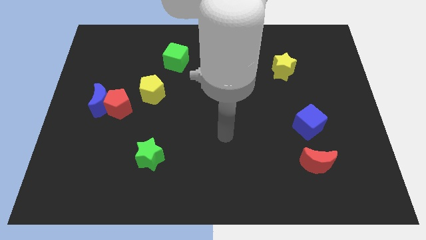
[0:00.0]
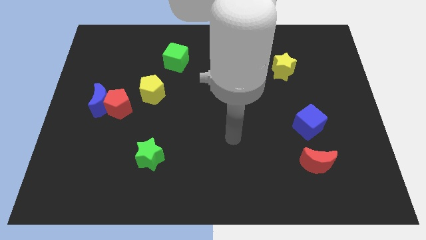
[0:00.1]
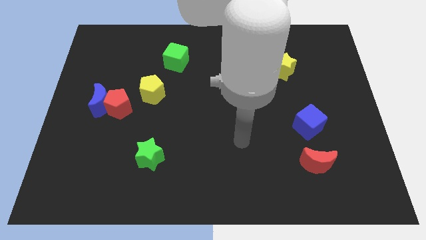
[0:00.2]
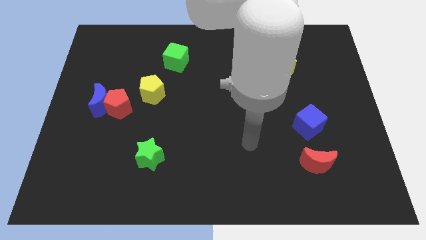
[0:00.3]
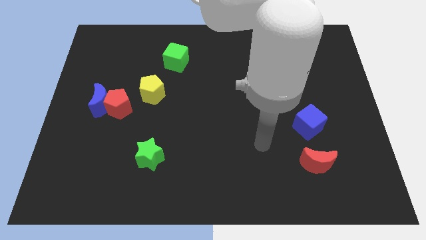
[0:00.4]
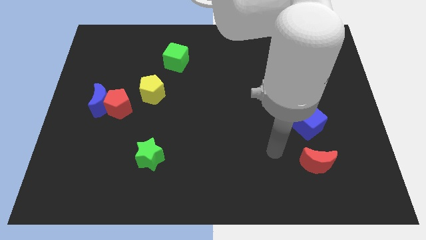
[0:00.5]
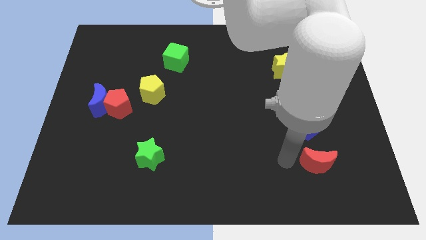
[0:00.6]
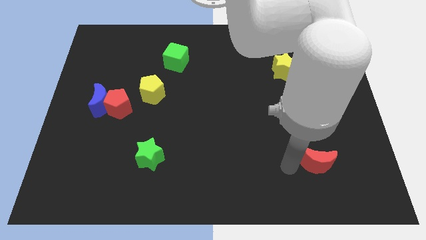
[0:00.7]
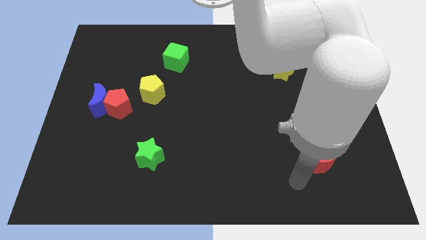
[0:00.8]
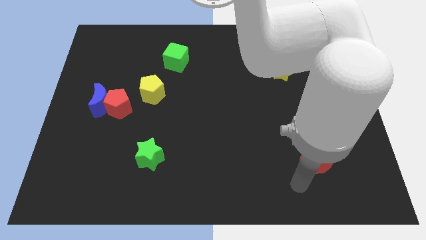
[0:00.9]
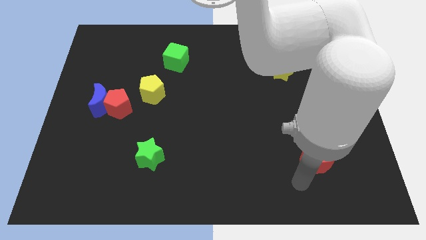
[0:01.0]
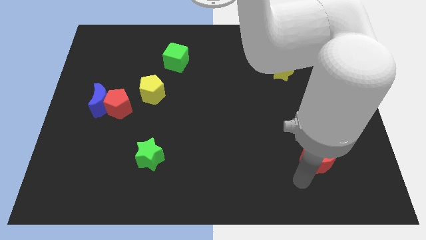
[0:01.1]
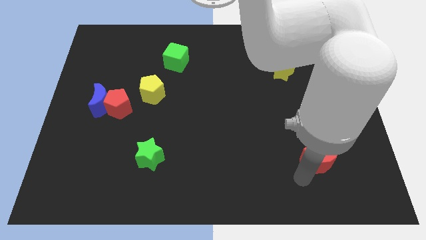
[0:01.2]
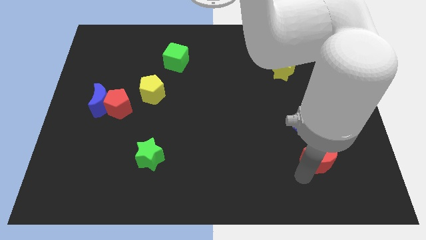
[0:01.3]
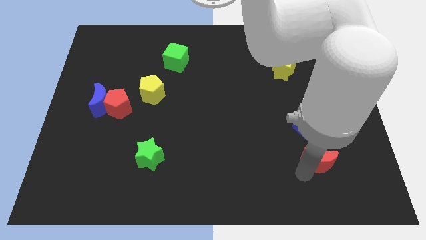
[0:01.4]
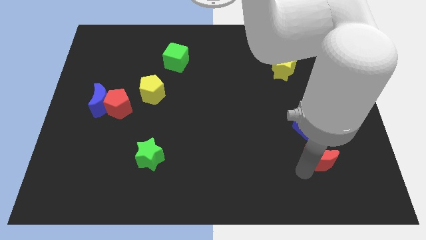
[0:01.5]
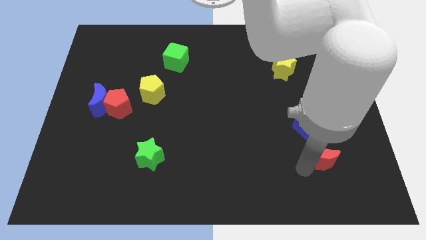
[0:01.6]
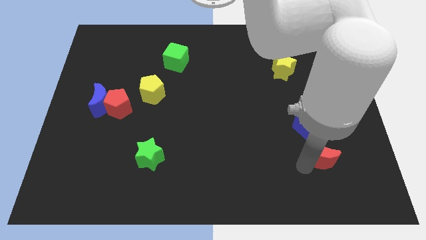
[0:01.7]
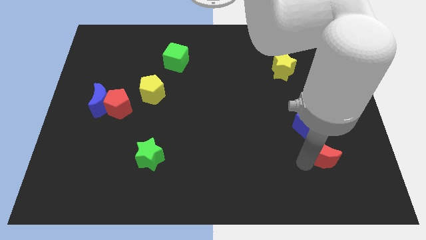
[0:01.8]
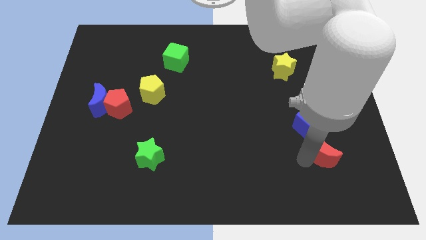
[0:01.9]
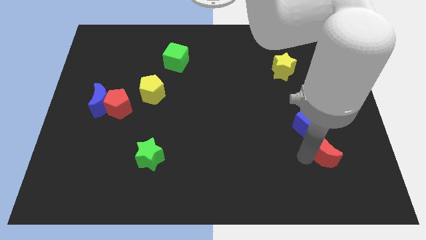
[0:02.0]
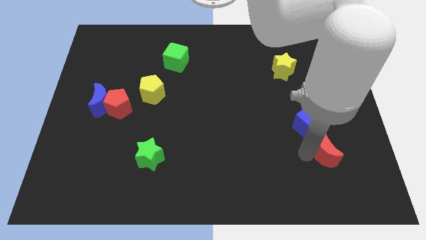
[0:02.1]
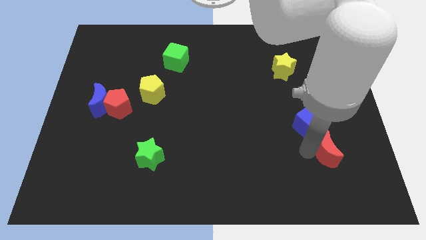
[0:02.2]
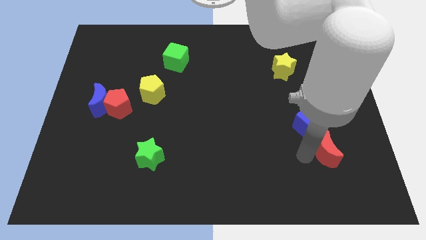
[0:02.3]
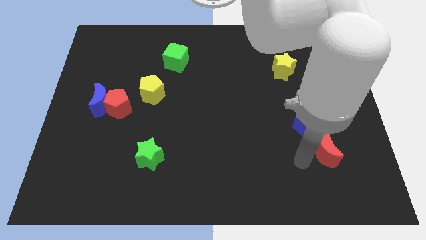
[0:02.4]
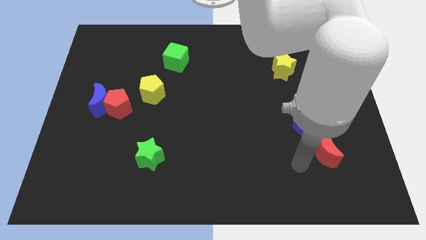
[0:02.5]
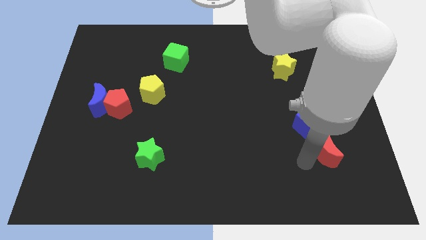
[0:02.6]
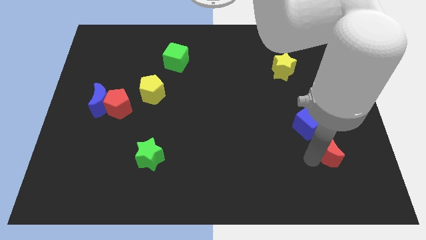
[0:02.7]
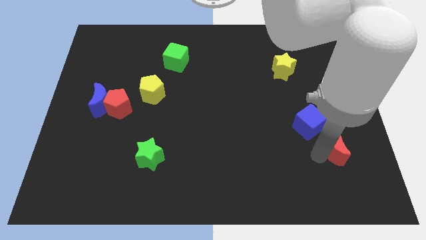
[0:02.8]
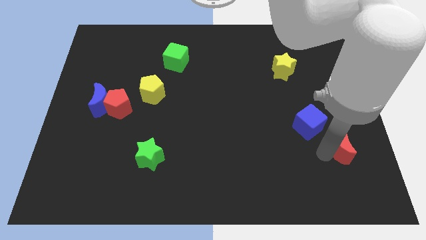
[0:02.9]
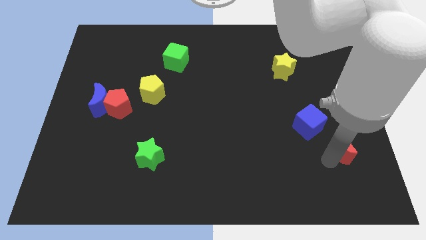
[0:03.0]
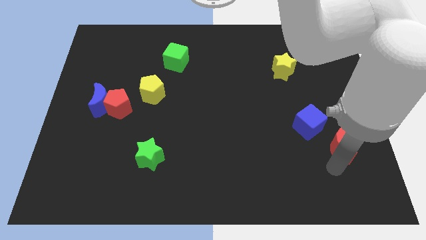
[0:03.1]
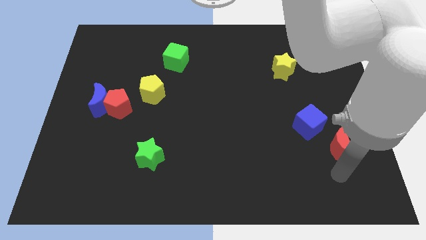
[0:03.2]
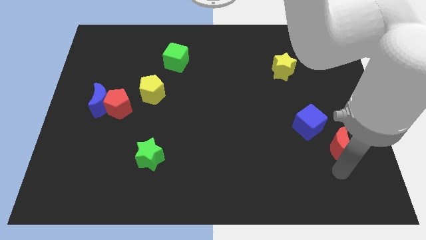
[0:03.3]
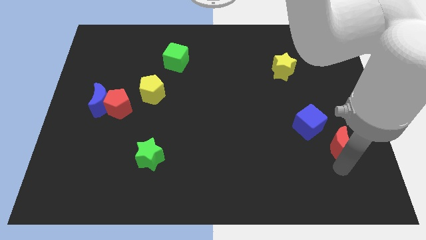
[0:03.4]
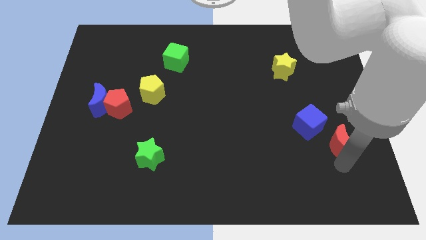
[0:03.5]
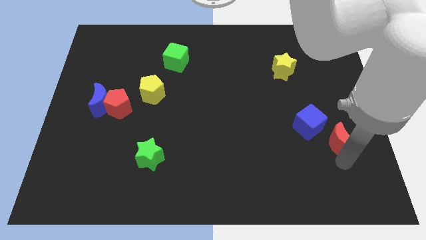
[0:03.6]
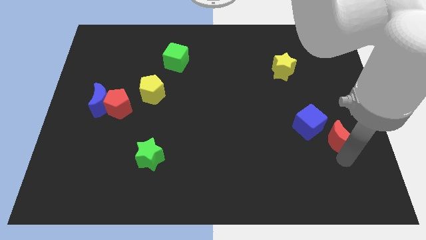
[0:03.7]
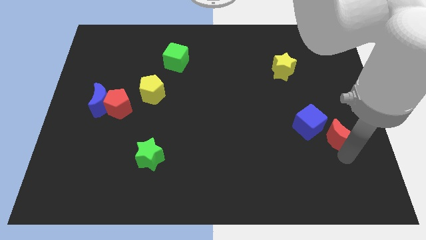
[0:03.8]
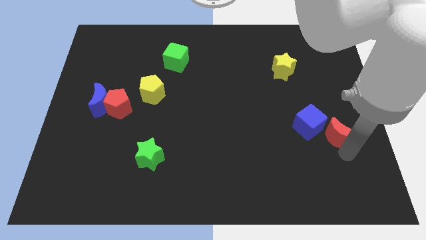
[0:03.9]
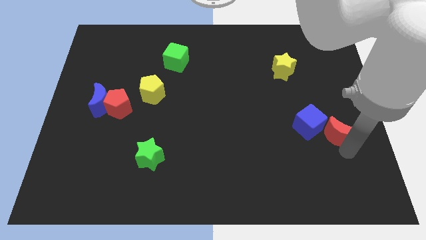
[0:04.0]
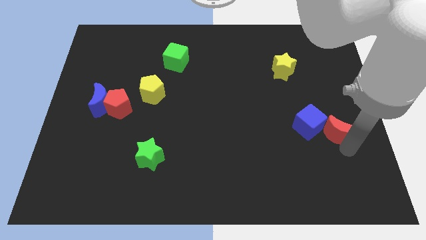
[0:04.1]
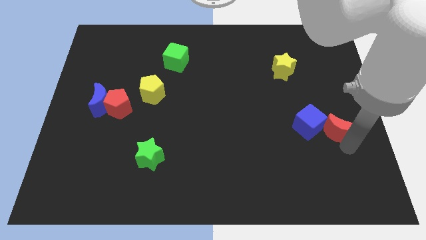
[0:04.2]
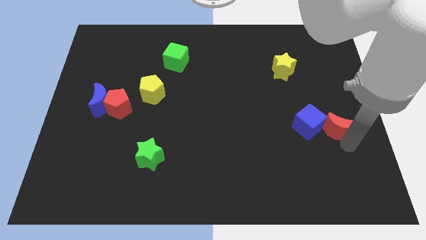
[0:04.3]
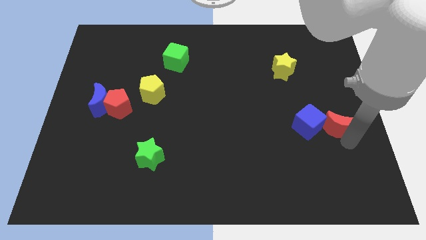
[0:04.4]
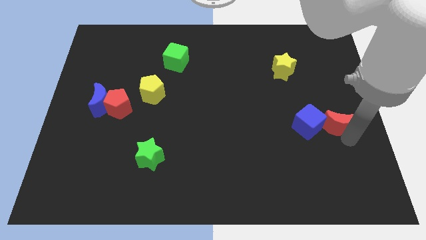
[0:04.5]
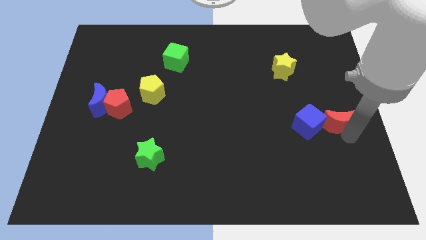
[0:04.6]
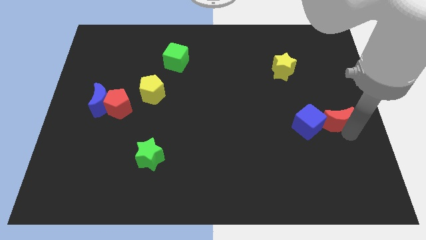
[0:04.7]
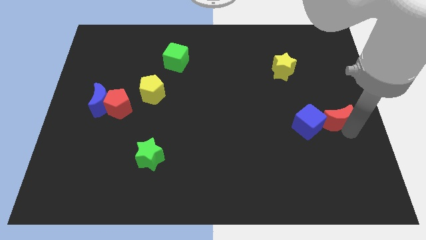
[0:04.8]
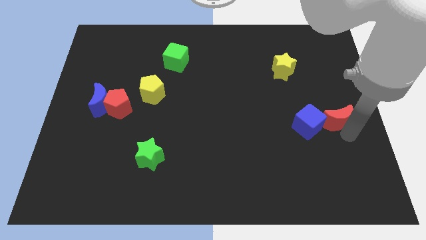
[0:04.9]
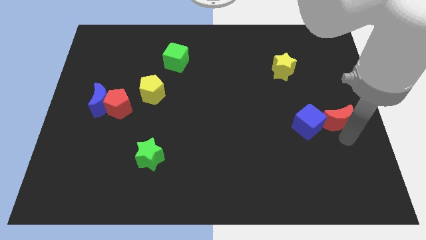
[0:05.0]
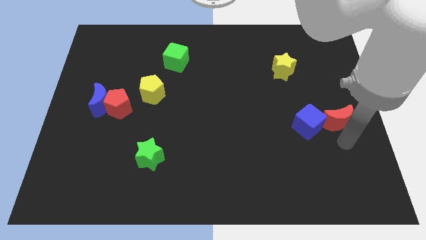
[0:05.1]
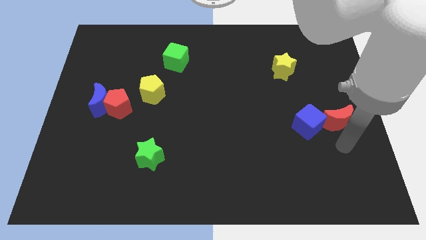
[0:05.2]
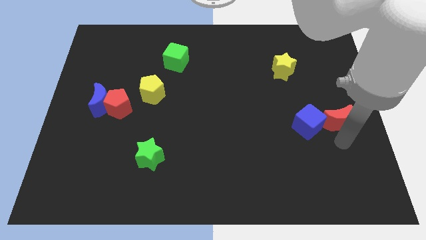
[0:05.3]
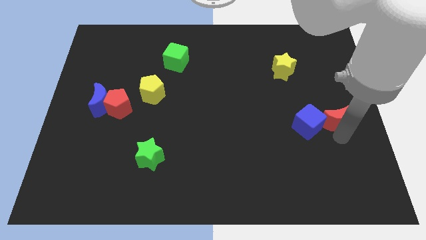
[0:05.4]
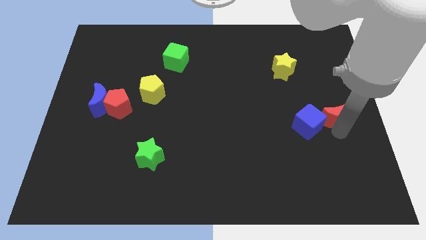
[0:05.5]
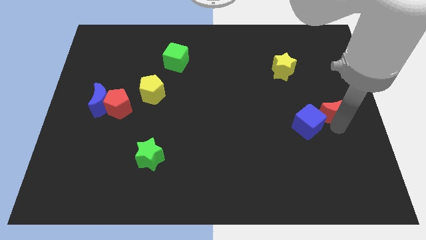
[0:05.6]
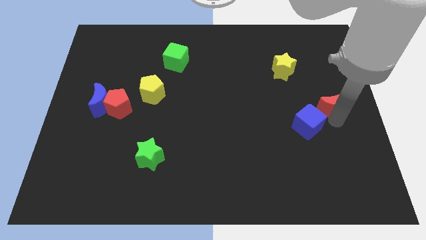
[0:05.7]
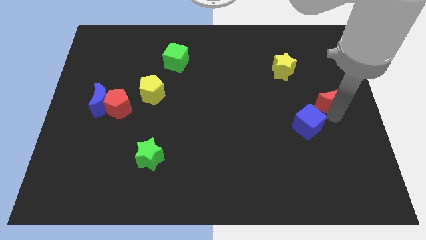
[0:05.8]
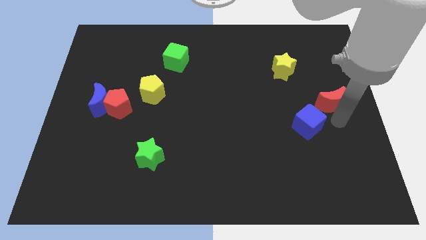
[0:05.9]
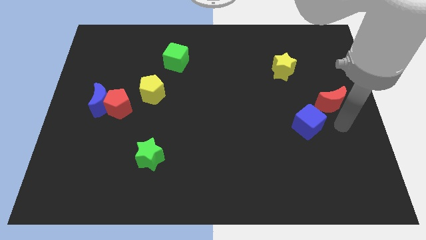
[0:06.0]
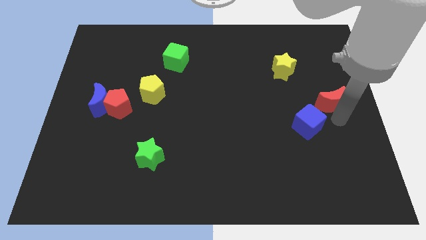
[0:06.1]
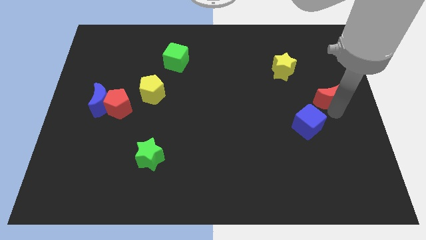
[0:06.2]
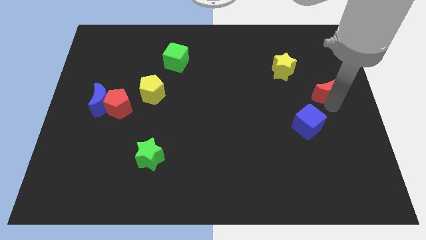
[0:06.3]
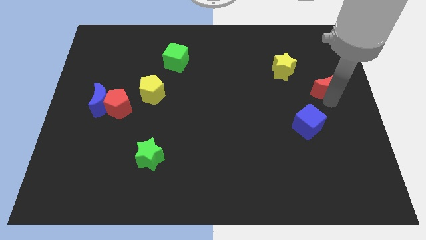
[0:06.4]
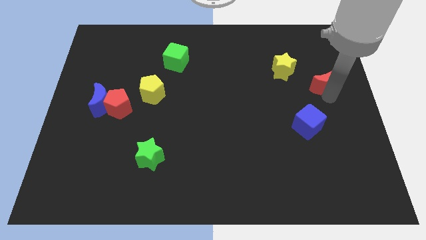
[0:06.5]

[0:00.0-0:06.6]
move the red moon up

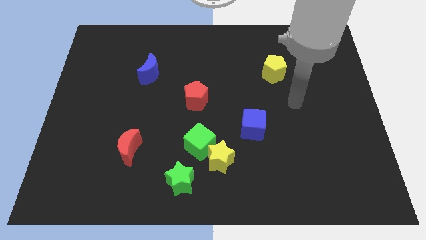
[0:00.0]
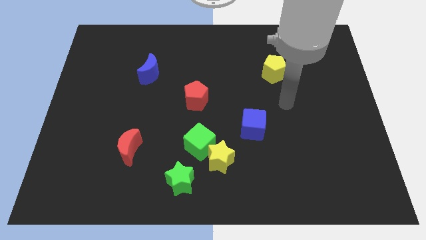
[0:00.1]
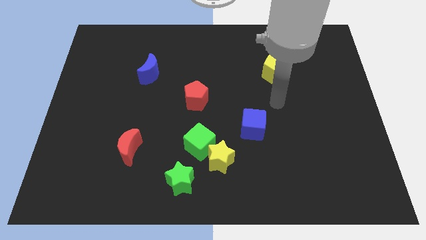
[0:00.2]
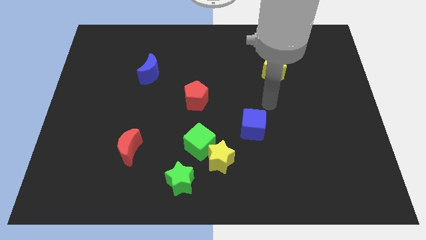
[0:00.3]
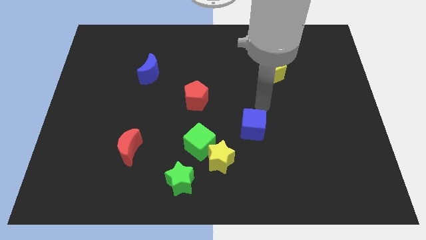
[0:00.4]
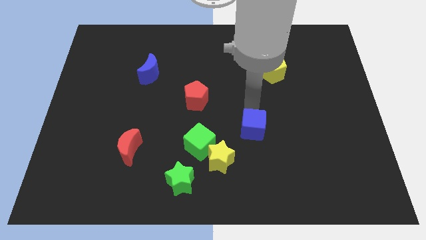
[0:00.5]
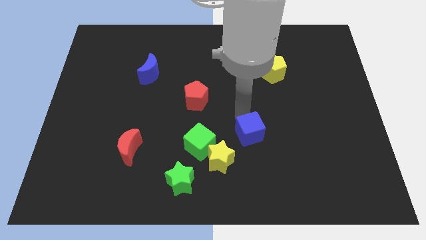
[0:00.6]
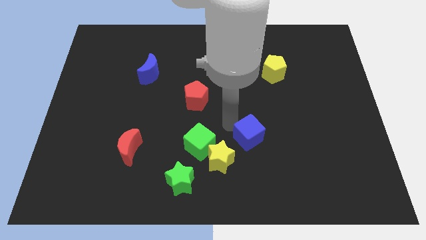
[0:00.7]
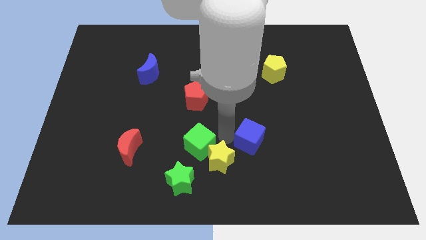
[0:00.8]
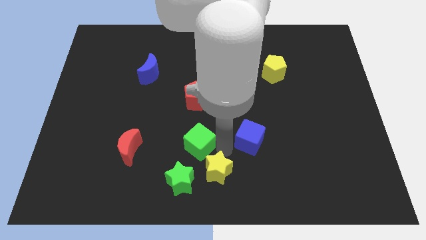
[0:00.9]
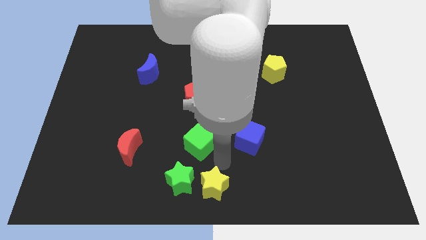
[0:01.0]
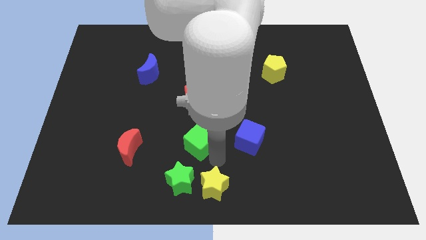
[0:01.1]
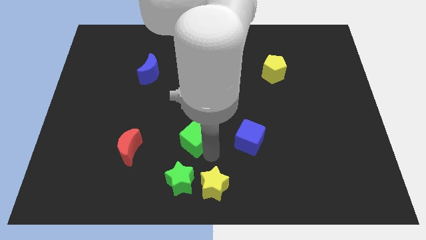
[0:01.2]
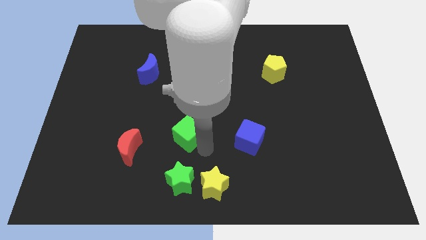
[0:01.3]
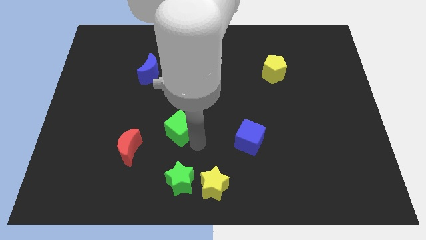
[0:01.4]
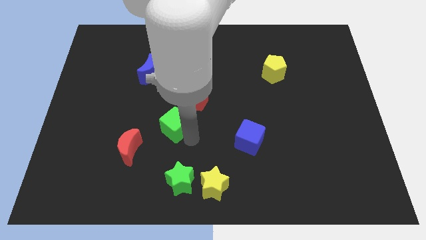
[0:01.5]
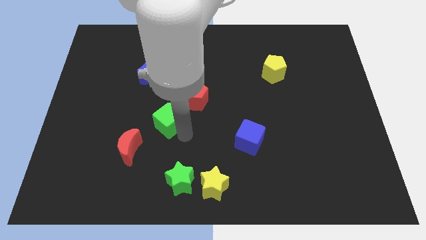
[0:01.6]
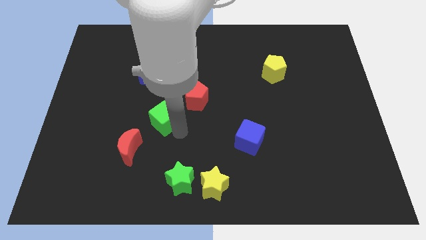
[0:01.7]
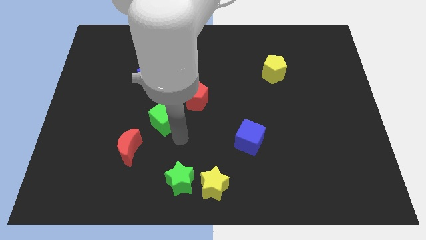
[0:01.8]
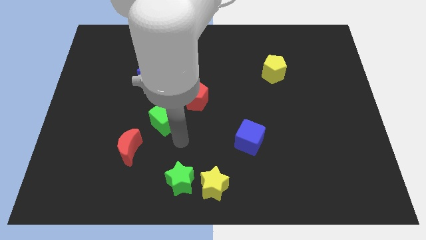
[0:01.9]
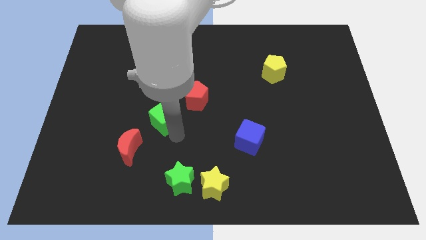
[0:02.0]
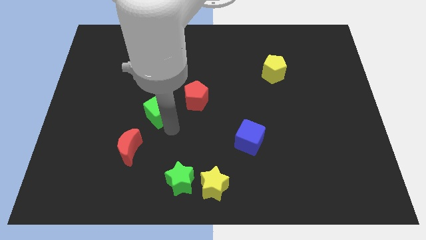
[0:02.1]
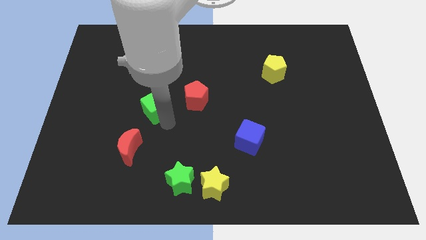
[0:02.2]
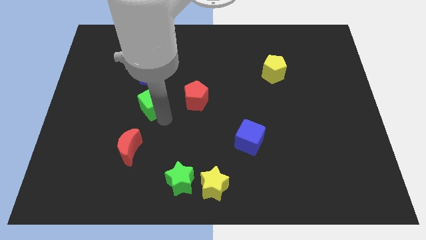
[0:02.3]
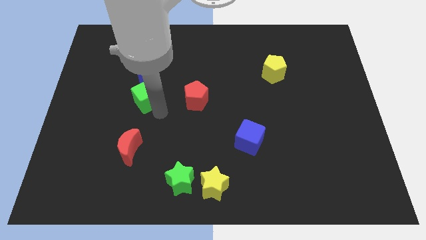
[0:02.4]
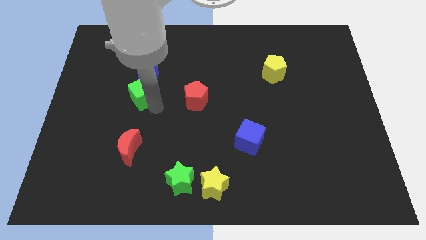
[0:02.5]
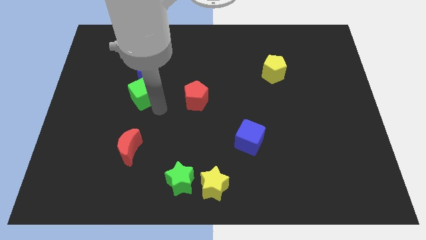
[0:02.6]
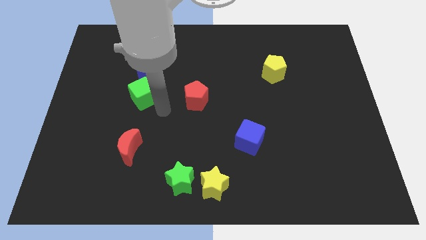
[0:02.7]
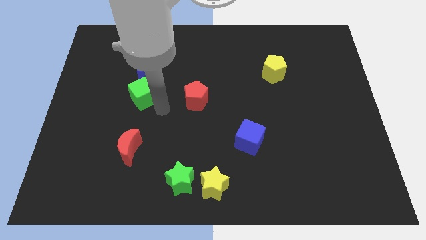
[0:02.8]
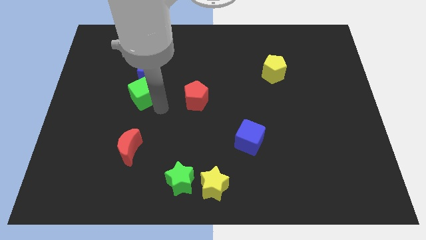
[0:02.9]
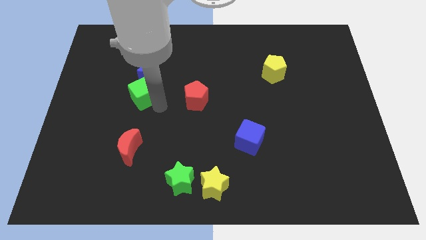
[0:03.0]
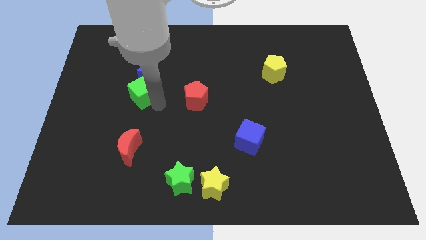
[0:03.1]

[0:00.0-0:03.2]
move the green cube upwards and then left
